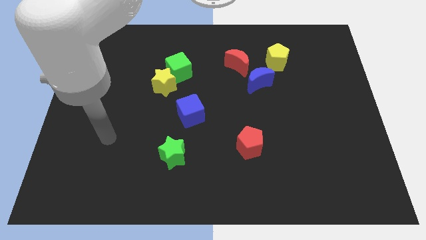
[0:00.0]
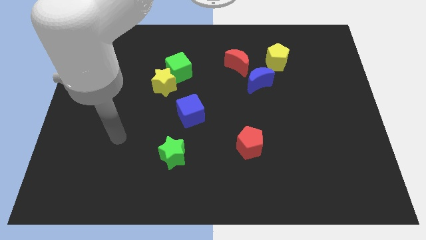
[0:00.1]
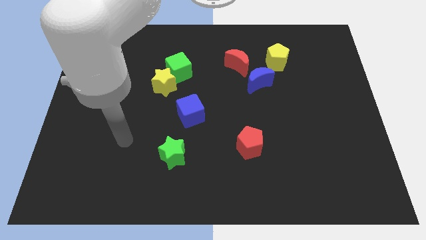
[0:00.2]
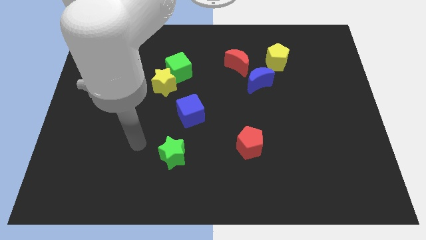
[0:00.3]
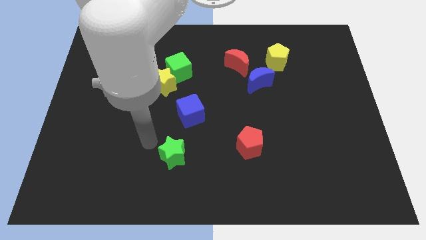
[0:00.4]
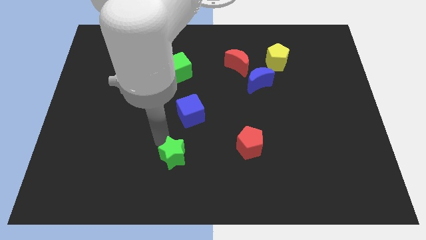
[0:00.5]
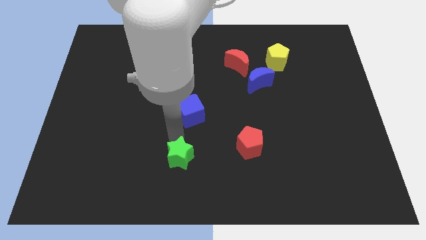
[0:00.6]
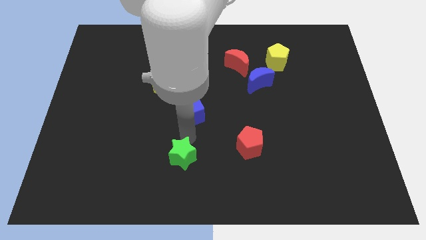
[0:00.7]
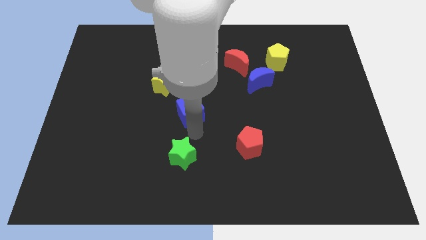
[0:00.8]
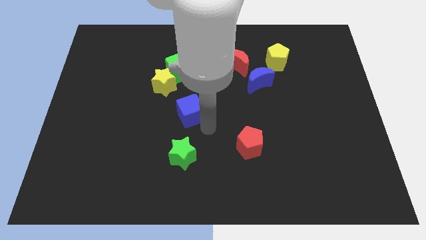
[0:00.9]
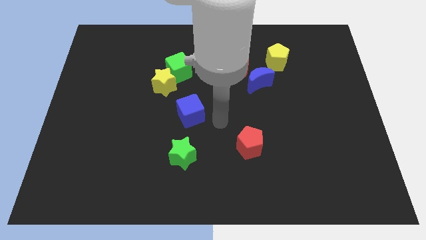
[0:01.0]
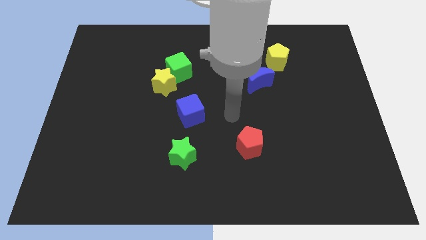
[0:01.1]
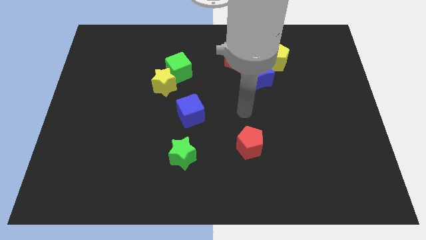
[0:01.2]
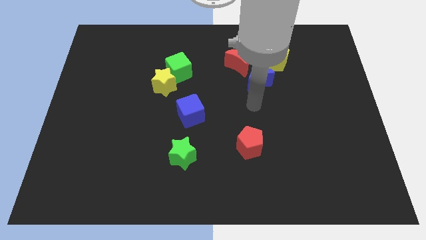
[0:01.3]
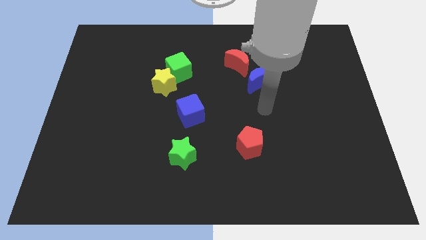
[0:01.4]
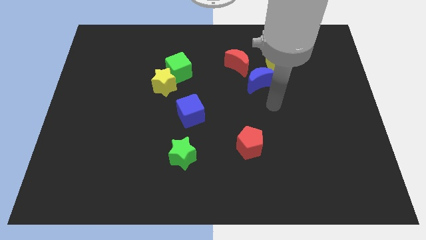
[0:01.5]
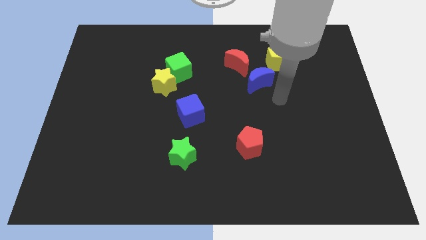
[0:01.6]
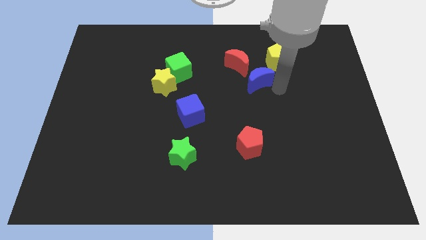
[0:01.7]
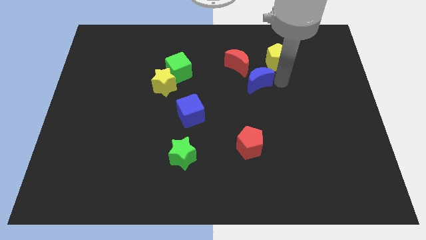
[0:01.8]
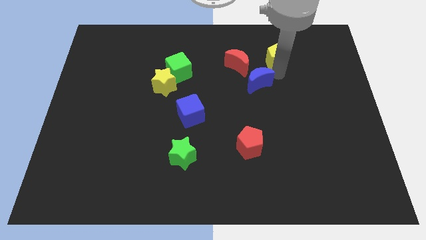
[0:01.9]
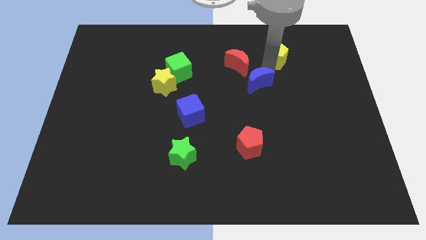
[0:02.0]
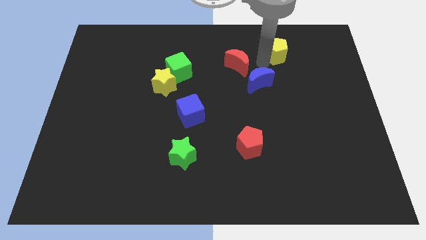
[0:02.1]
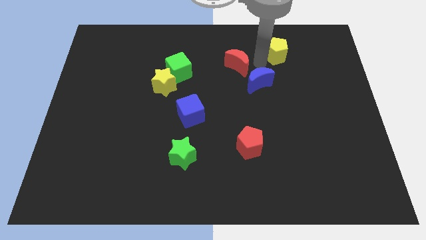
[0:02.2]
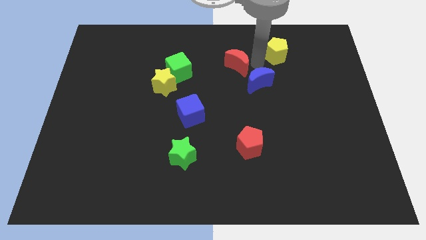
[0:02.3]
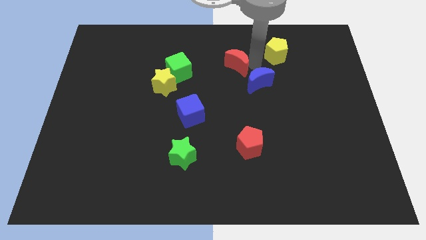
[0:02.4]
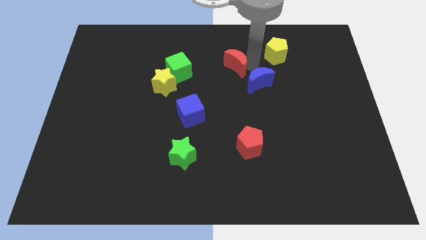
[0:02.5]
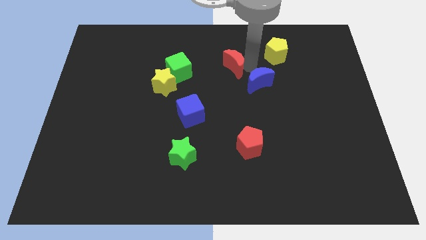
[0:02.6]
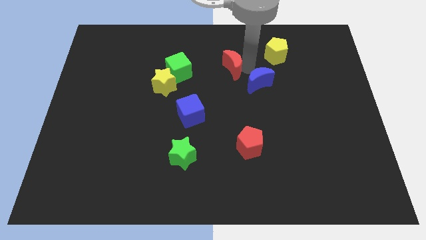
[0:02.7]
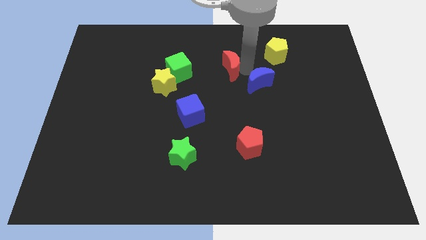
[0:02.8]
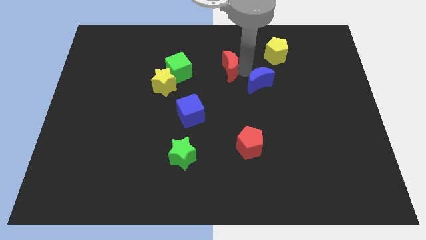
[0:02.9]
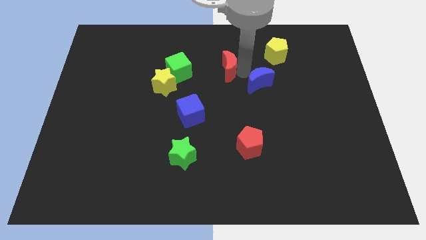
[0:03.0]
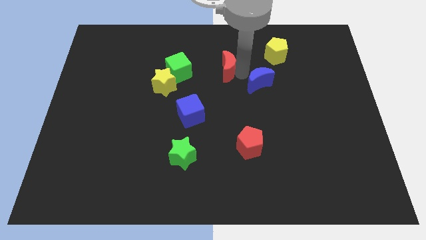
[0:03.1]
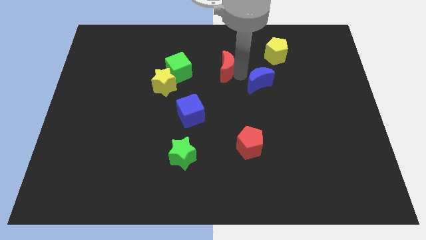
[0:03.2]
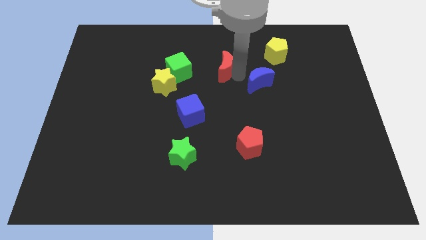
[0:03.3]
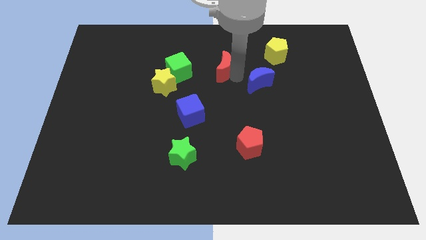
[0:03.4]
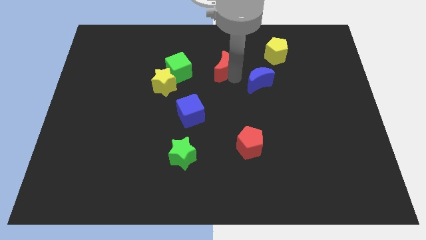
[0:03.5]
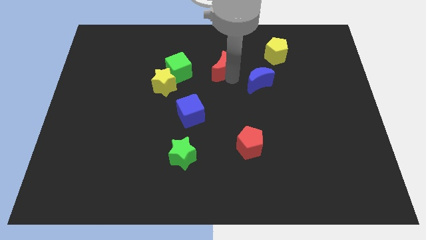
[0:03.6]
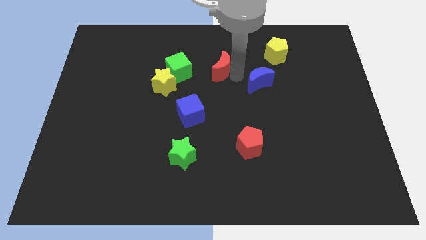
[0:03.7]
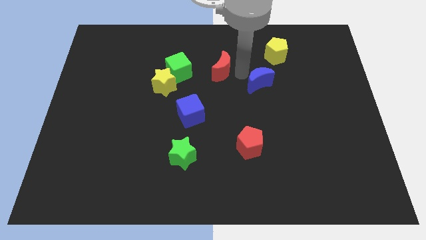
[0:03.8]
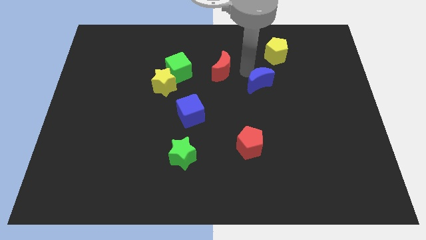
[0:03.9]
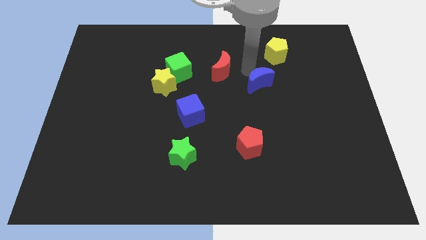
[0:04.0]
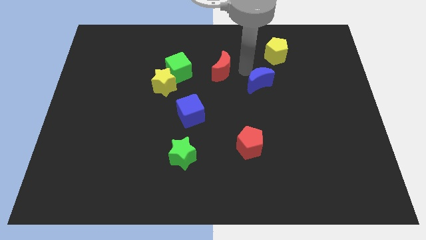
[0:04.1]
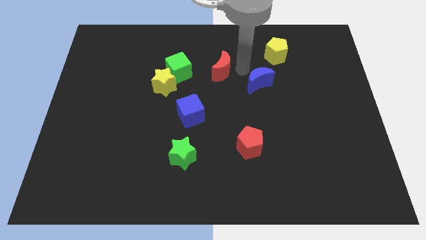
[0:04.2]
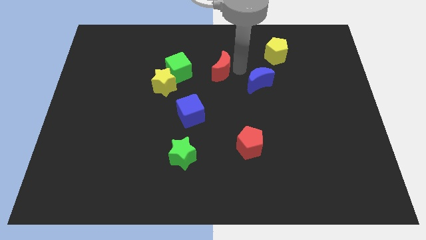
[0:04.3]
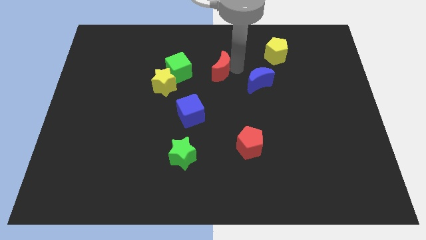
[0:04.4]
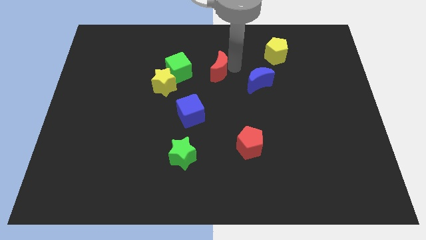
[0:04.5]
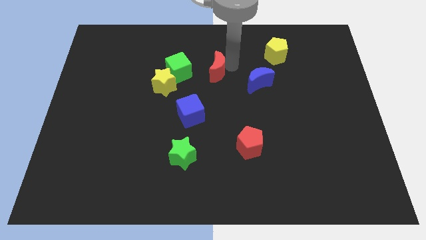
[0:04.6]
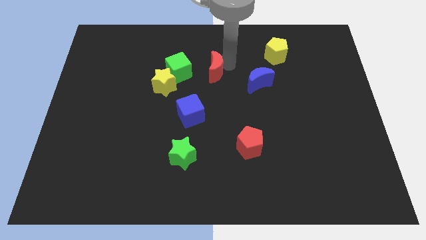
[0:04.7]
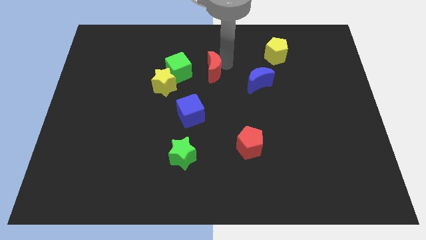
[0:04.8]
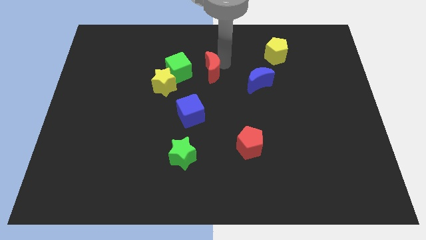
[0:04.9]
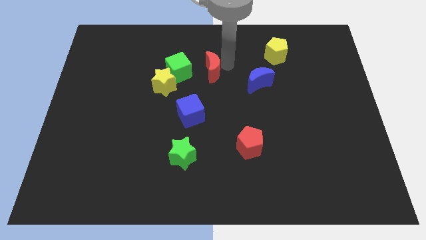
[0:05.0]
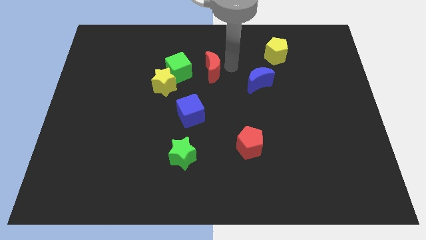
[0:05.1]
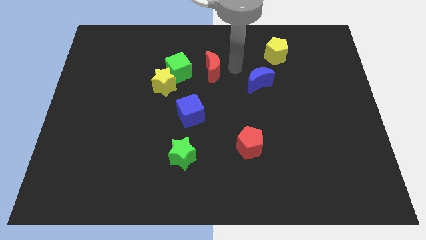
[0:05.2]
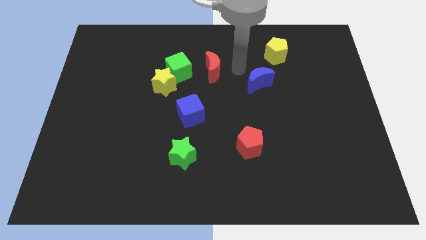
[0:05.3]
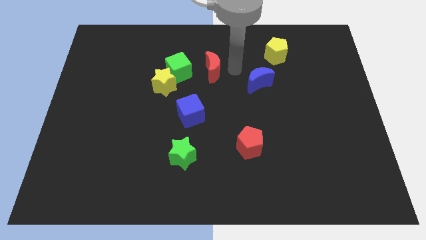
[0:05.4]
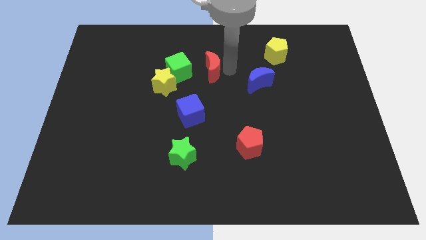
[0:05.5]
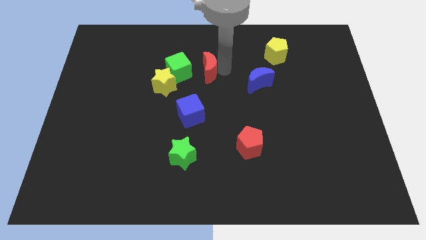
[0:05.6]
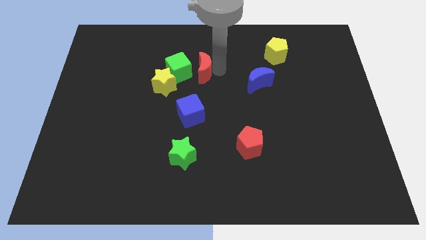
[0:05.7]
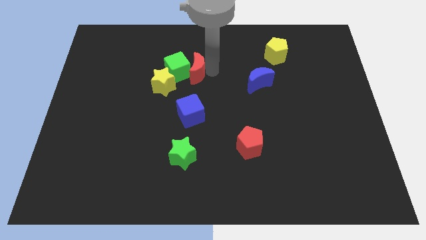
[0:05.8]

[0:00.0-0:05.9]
put the red moon next to the green cube

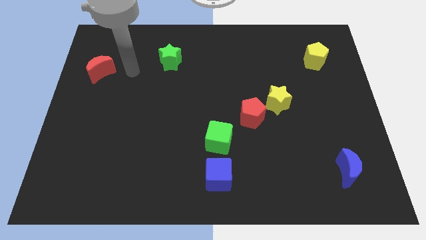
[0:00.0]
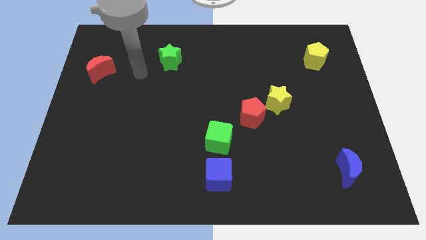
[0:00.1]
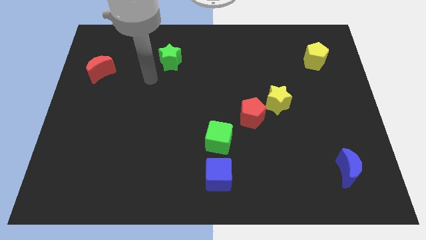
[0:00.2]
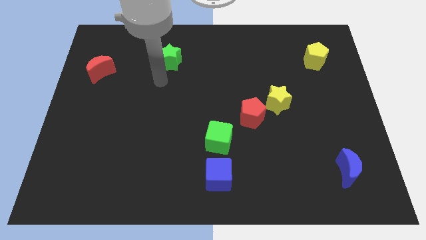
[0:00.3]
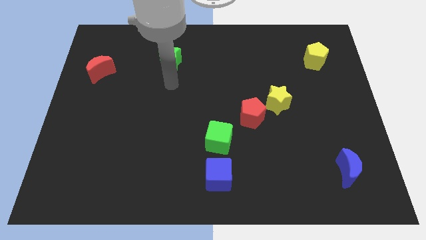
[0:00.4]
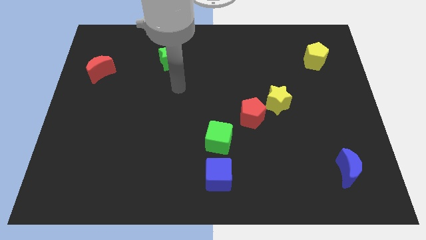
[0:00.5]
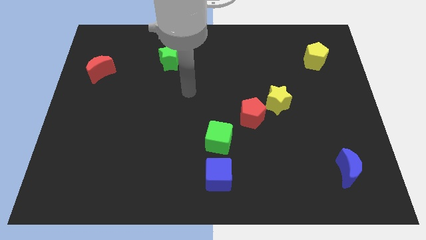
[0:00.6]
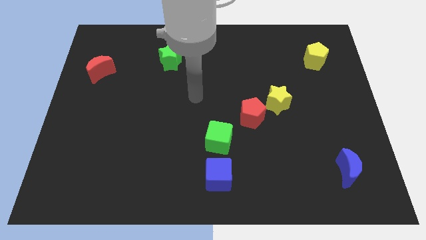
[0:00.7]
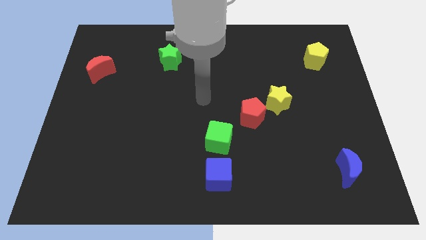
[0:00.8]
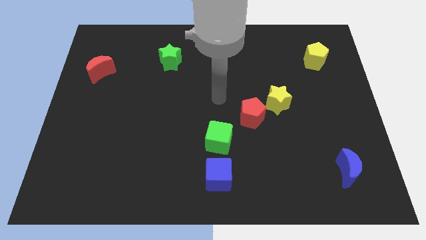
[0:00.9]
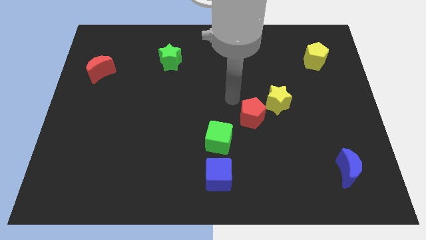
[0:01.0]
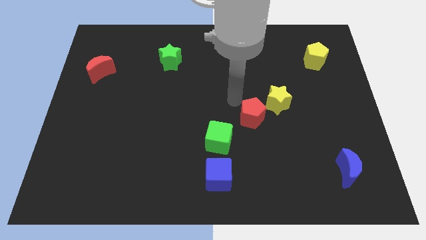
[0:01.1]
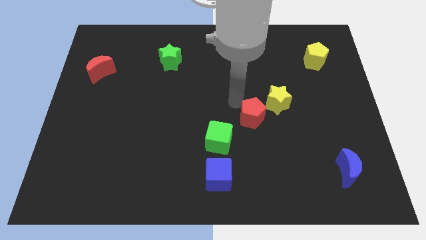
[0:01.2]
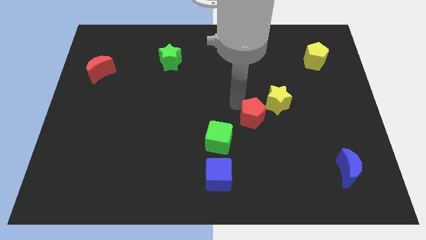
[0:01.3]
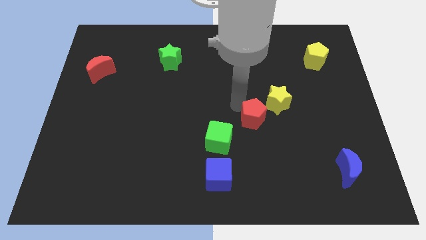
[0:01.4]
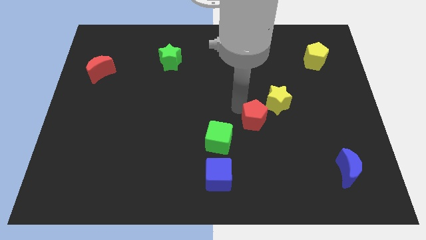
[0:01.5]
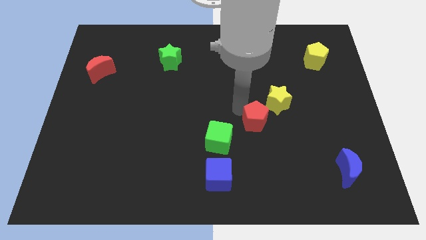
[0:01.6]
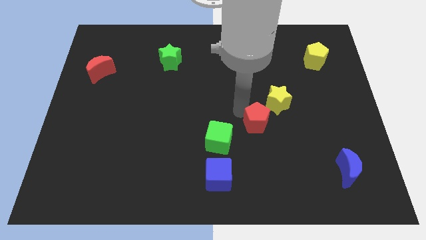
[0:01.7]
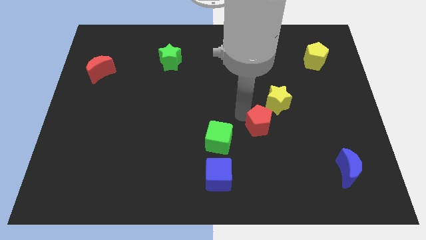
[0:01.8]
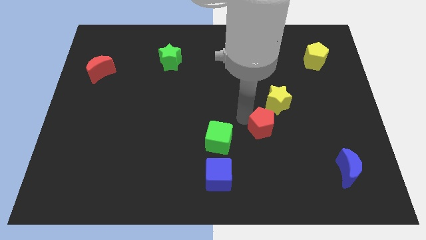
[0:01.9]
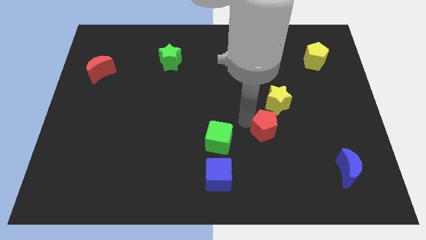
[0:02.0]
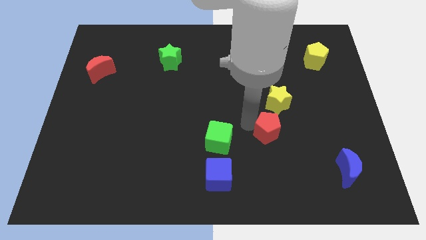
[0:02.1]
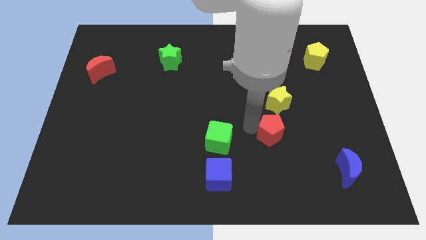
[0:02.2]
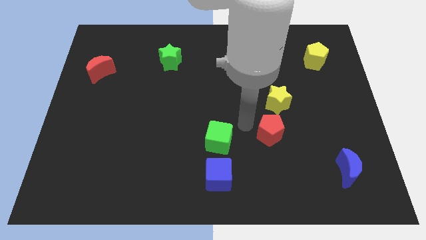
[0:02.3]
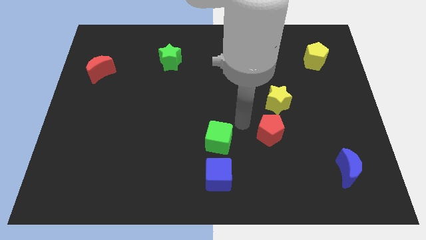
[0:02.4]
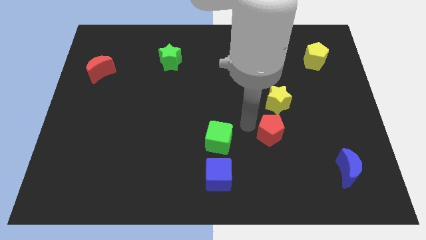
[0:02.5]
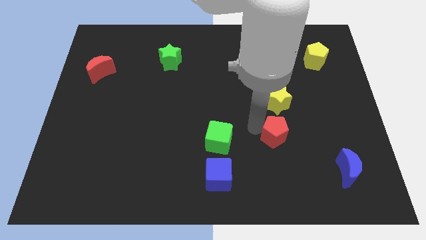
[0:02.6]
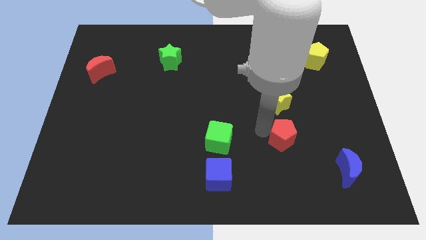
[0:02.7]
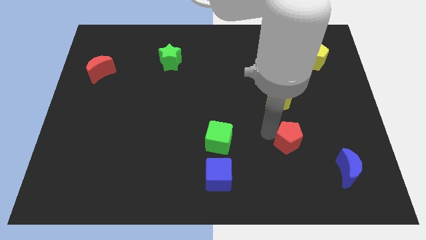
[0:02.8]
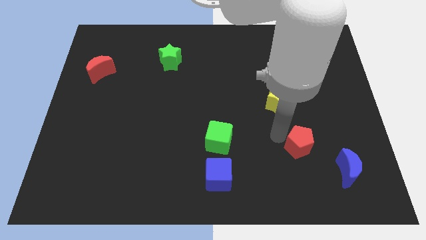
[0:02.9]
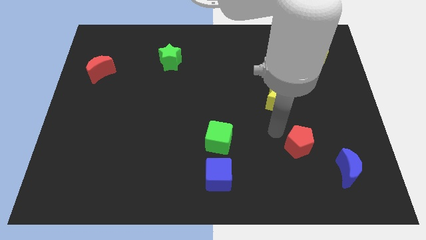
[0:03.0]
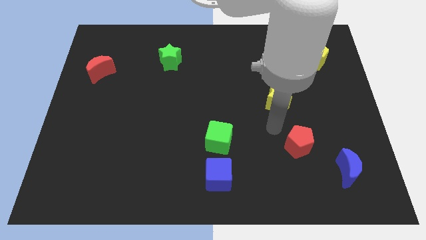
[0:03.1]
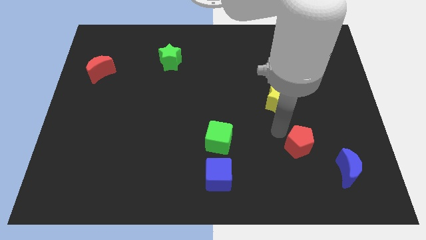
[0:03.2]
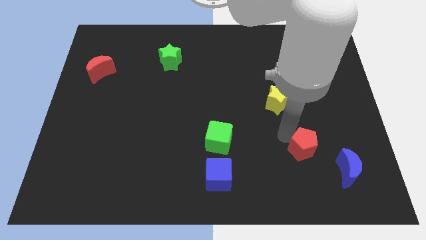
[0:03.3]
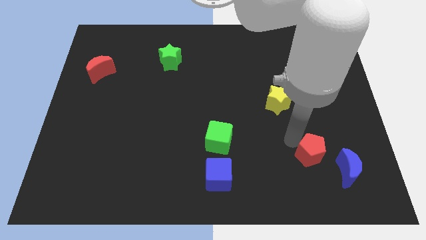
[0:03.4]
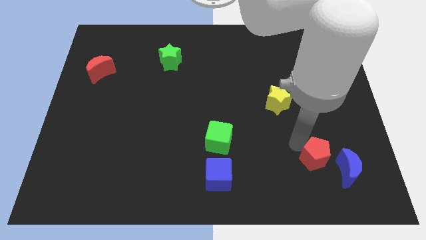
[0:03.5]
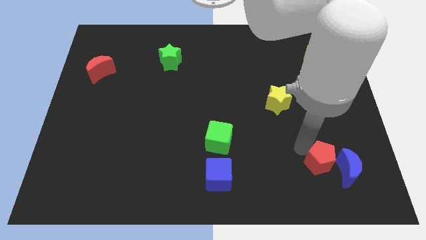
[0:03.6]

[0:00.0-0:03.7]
push the red pentagon to the blue moon
